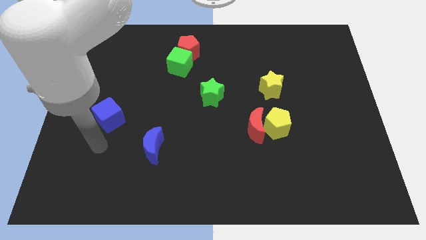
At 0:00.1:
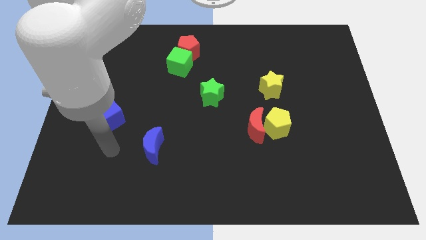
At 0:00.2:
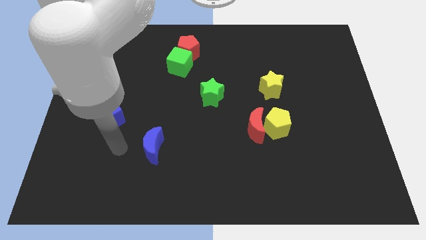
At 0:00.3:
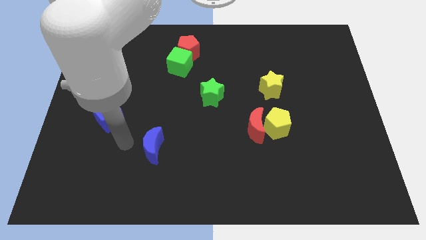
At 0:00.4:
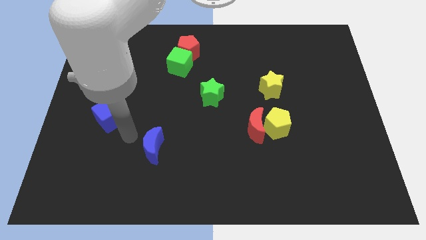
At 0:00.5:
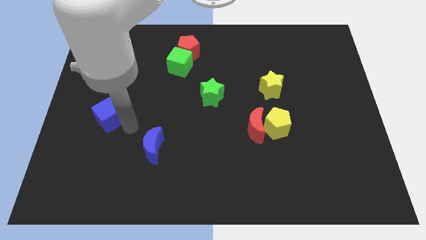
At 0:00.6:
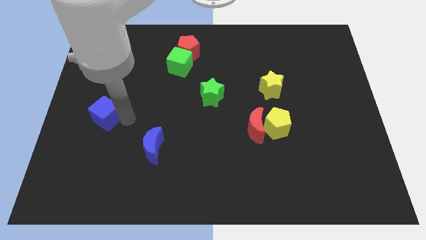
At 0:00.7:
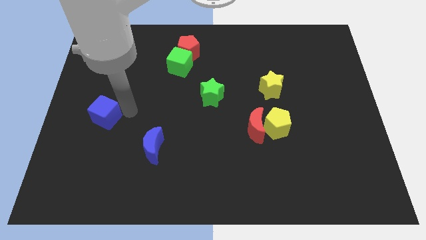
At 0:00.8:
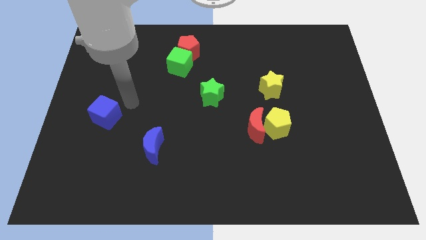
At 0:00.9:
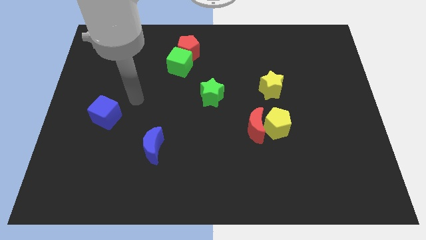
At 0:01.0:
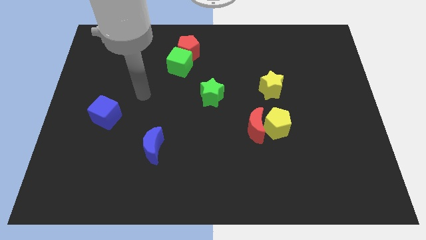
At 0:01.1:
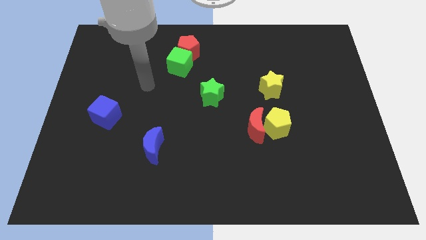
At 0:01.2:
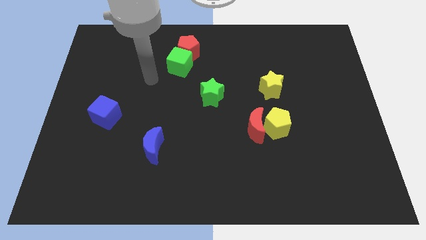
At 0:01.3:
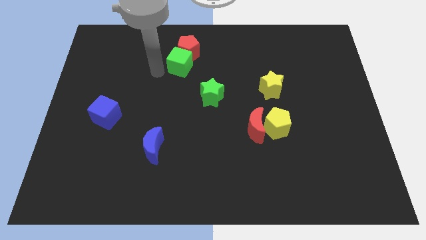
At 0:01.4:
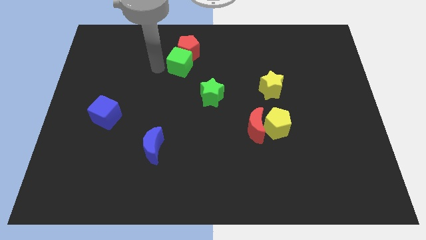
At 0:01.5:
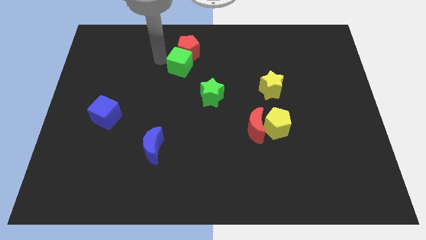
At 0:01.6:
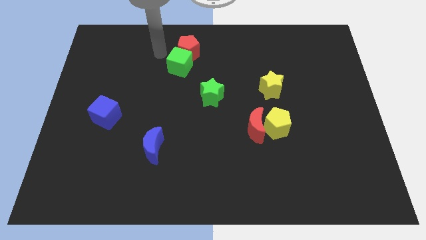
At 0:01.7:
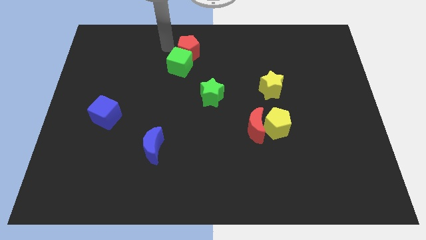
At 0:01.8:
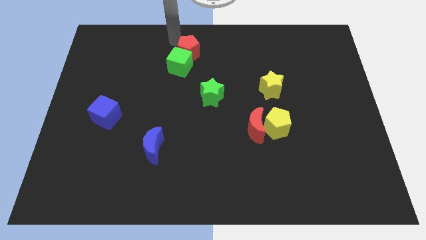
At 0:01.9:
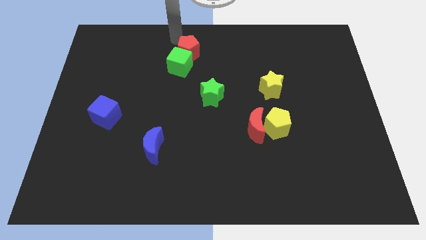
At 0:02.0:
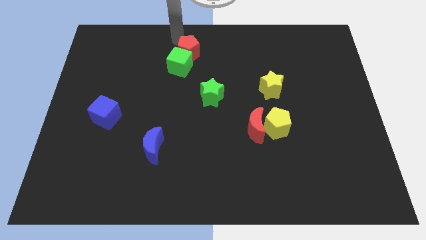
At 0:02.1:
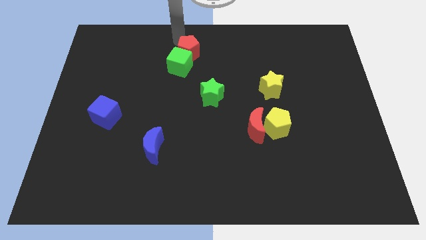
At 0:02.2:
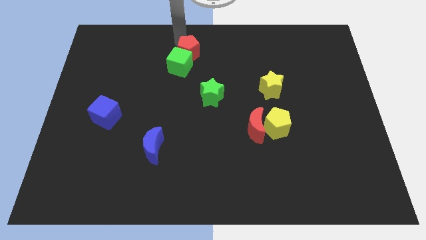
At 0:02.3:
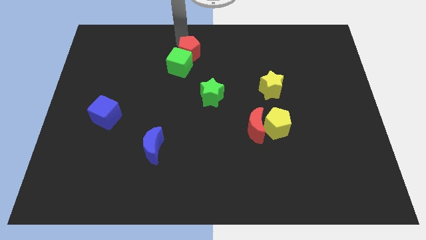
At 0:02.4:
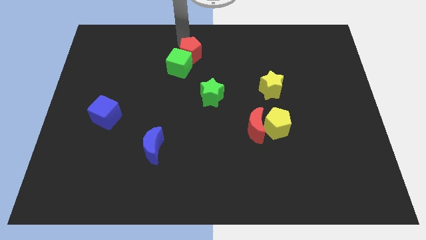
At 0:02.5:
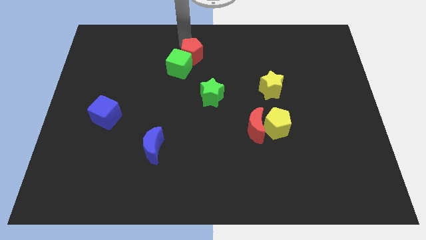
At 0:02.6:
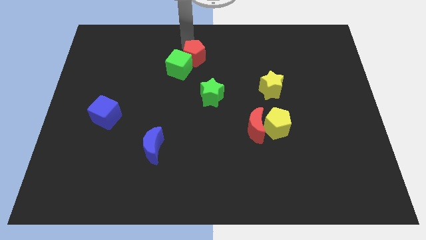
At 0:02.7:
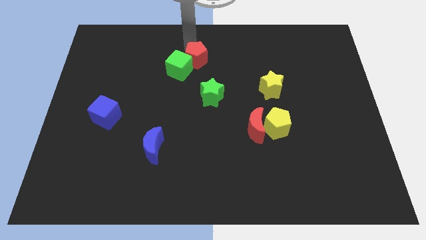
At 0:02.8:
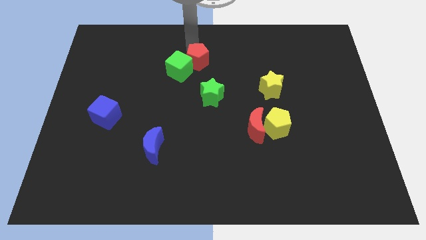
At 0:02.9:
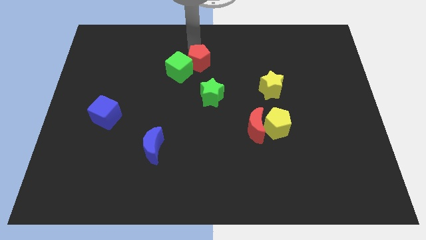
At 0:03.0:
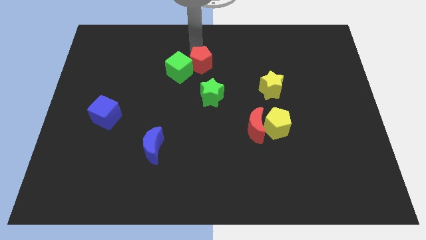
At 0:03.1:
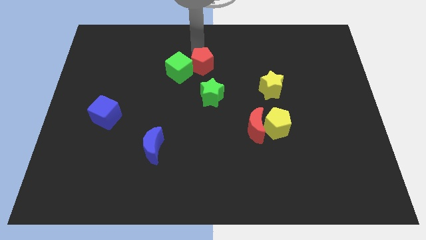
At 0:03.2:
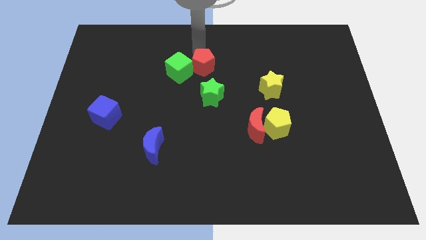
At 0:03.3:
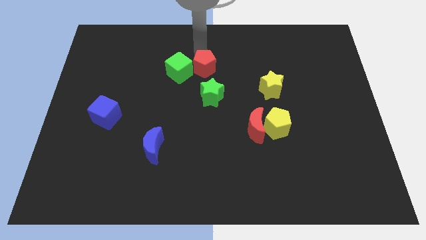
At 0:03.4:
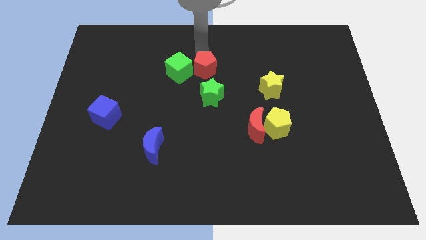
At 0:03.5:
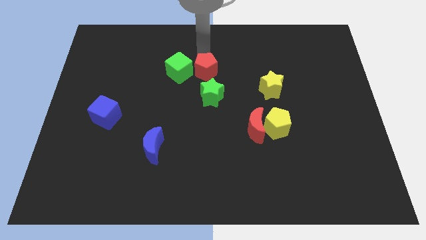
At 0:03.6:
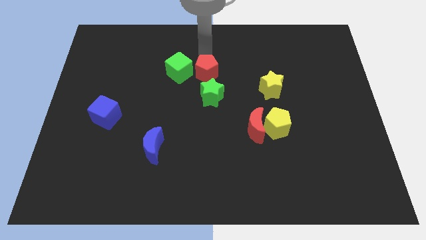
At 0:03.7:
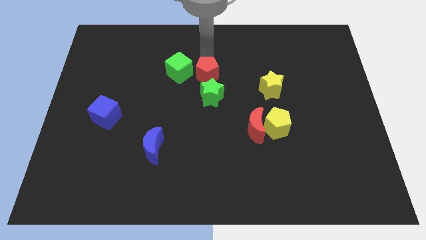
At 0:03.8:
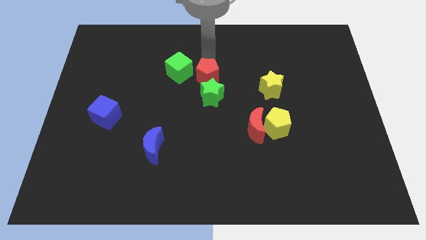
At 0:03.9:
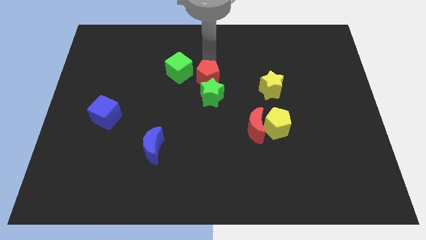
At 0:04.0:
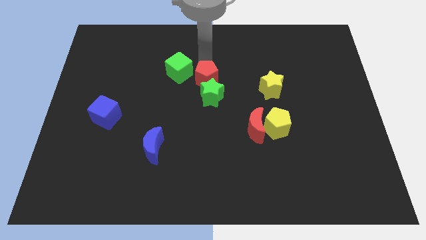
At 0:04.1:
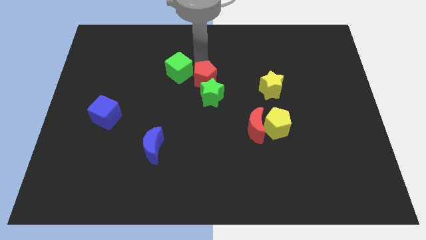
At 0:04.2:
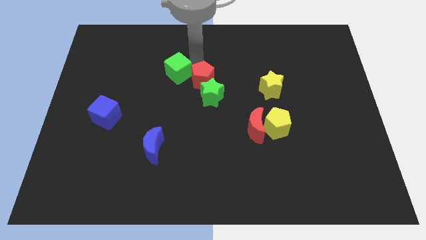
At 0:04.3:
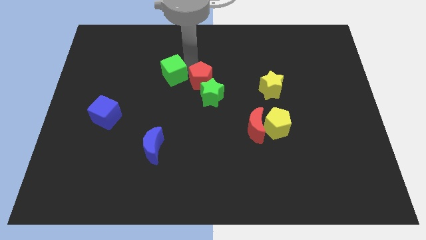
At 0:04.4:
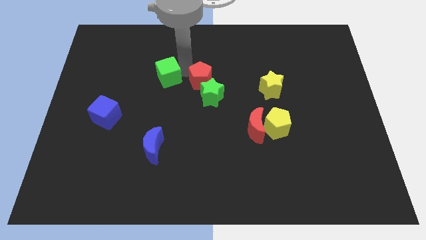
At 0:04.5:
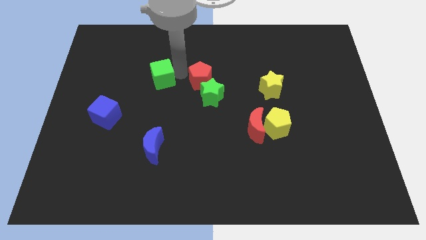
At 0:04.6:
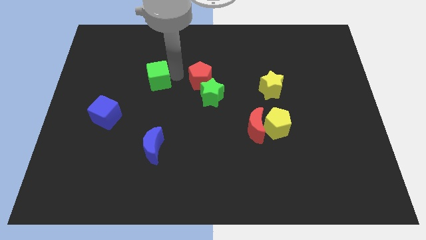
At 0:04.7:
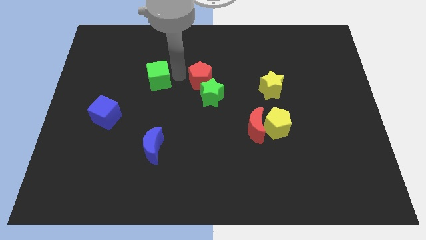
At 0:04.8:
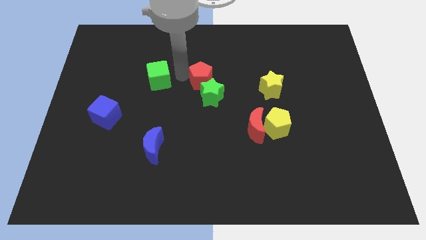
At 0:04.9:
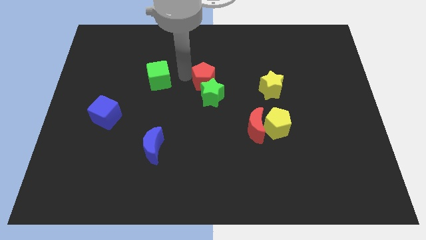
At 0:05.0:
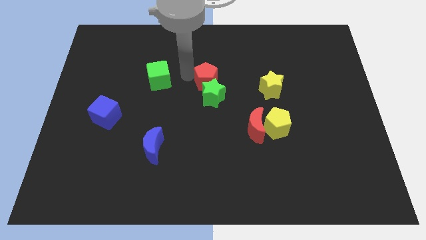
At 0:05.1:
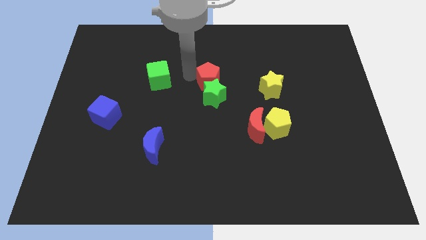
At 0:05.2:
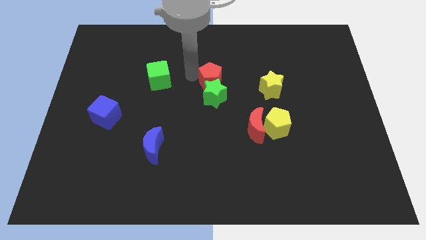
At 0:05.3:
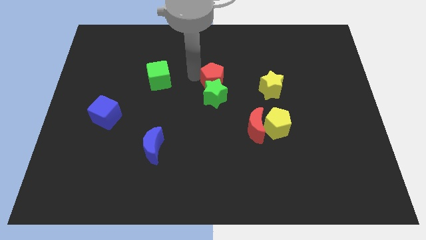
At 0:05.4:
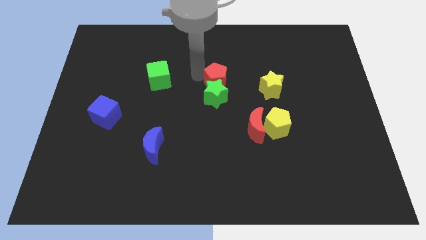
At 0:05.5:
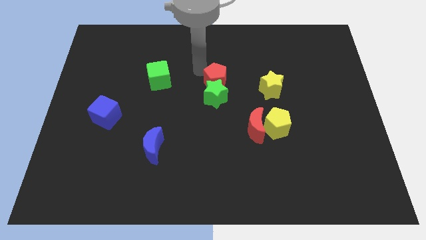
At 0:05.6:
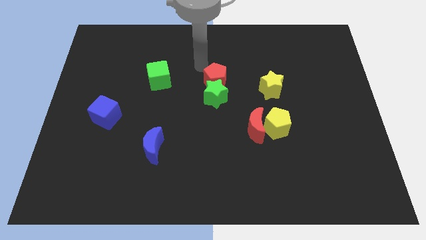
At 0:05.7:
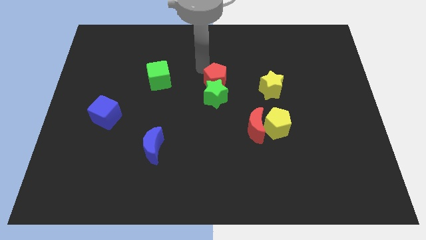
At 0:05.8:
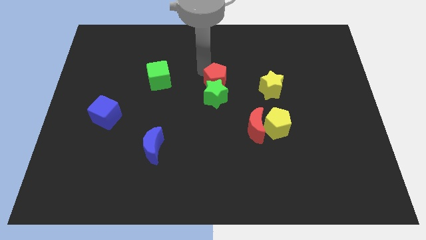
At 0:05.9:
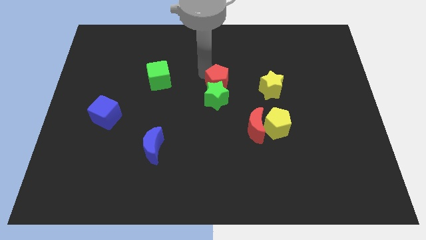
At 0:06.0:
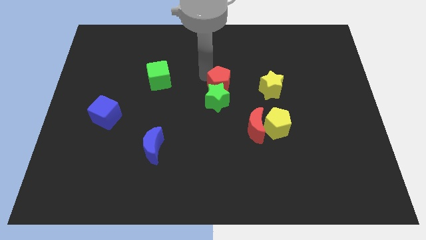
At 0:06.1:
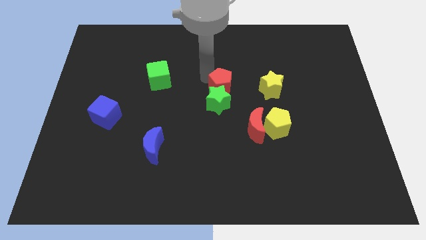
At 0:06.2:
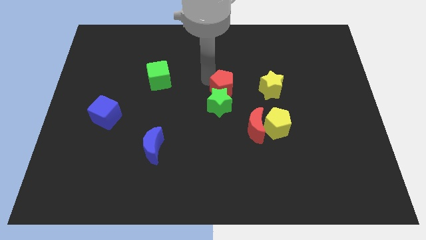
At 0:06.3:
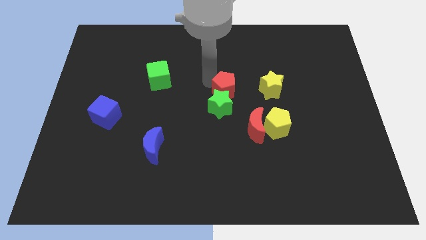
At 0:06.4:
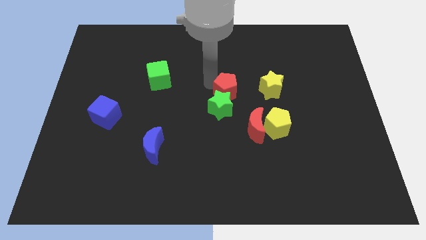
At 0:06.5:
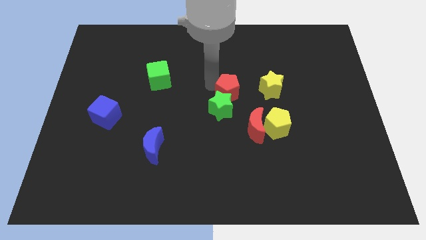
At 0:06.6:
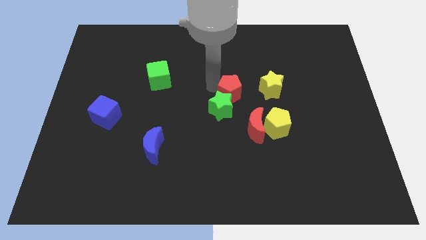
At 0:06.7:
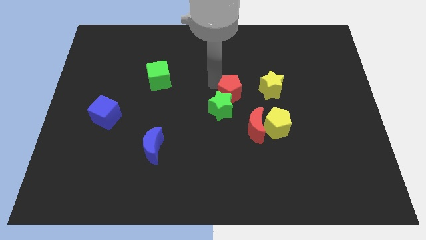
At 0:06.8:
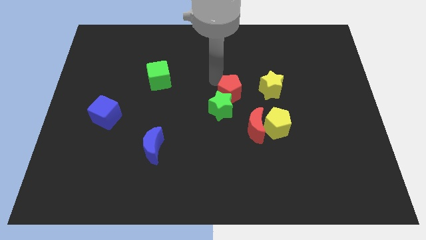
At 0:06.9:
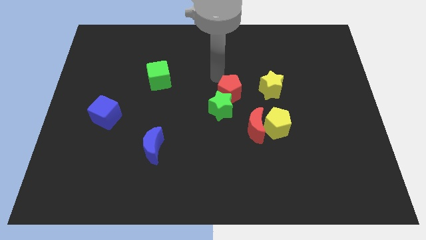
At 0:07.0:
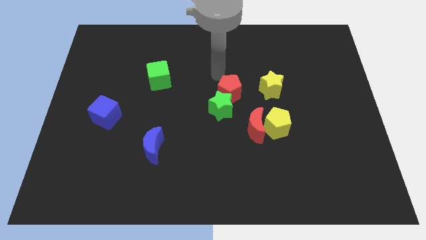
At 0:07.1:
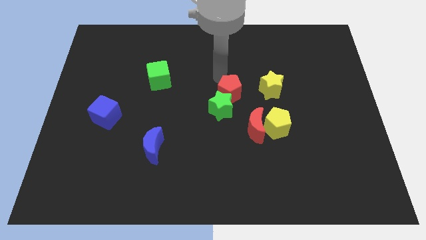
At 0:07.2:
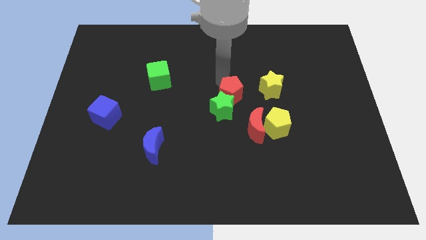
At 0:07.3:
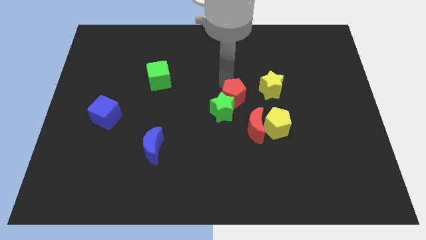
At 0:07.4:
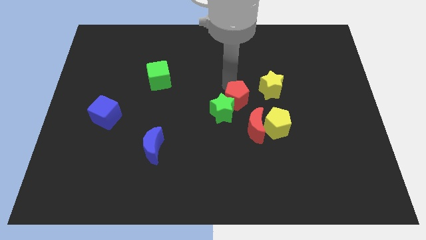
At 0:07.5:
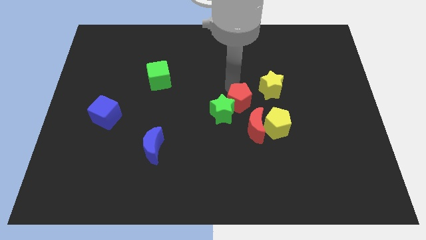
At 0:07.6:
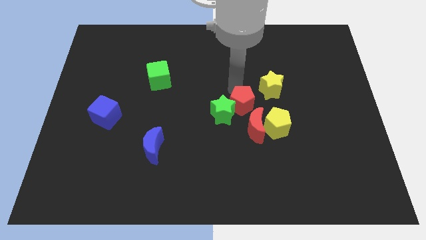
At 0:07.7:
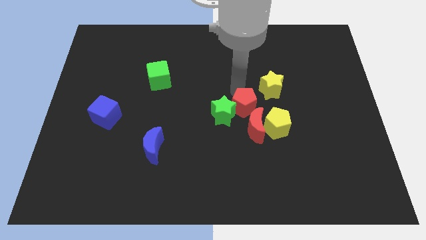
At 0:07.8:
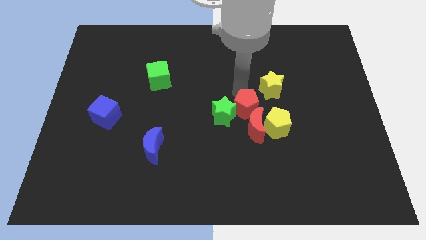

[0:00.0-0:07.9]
slide the red pentagon to the red moon
